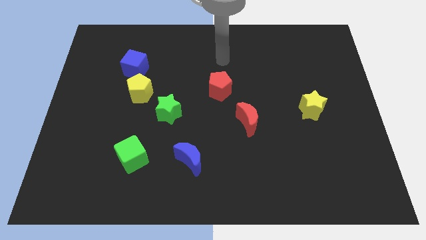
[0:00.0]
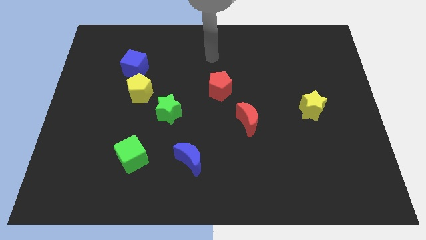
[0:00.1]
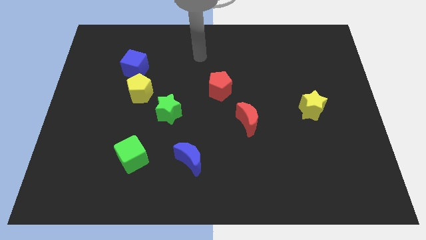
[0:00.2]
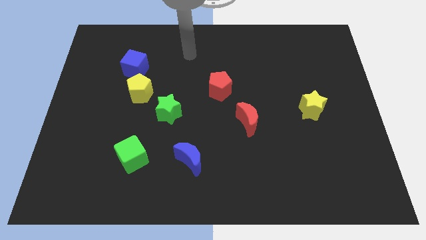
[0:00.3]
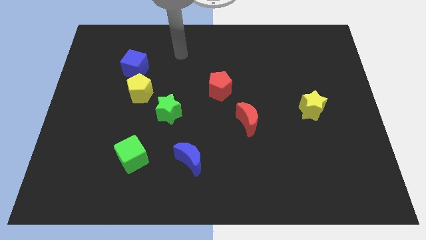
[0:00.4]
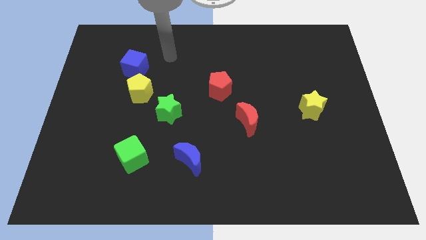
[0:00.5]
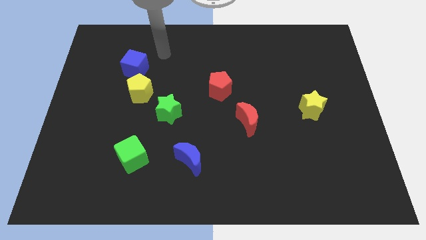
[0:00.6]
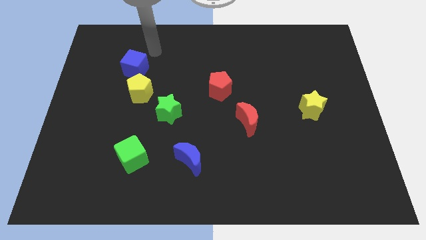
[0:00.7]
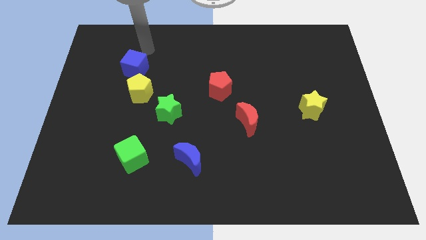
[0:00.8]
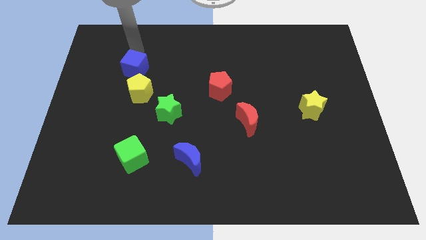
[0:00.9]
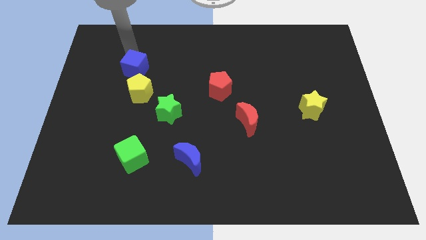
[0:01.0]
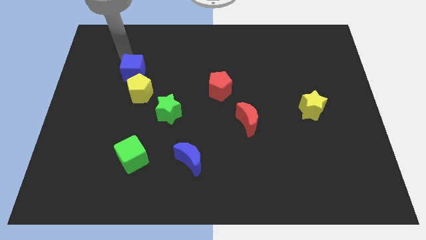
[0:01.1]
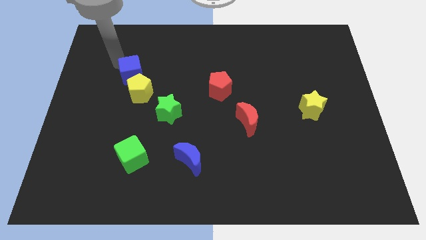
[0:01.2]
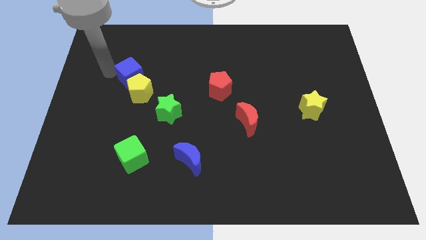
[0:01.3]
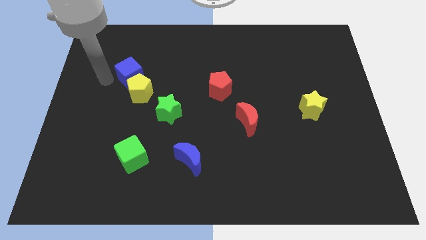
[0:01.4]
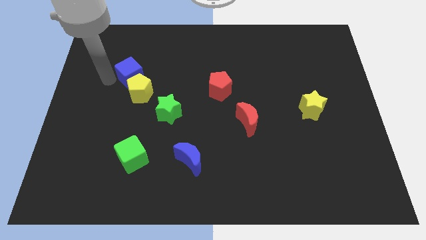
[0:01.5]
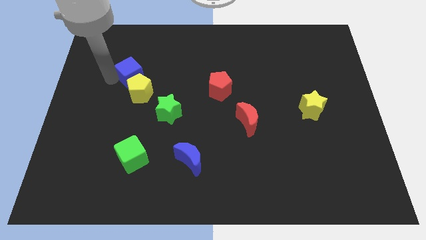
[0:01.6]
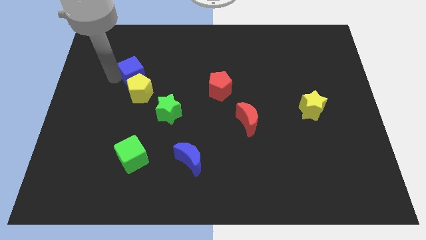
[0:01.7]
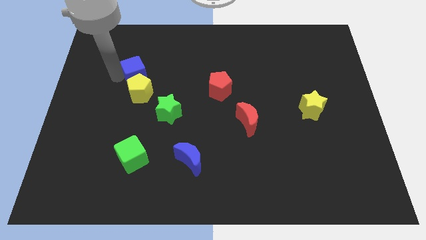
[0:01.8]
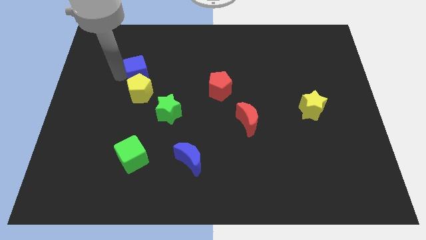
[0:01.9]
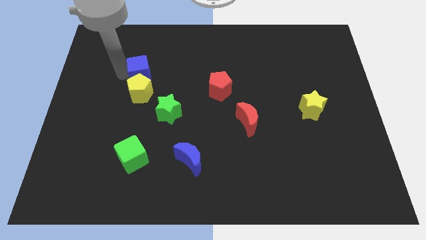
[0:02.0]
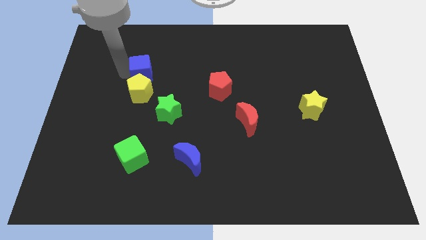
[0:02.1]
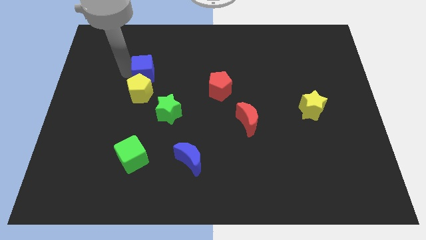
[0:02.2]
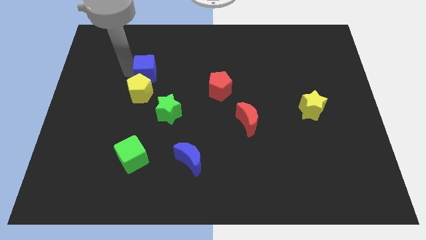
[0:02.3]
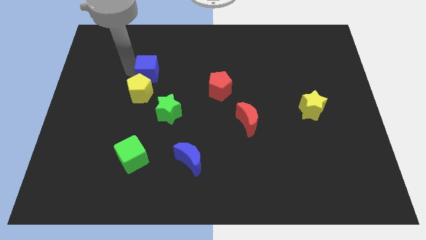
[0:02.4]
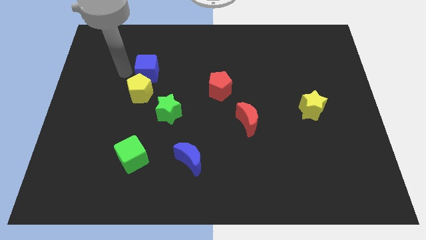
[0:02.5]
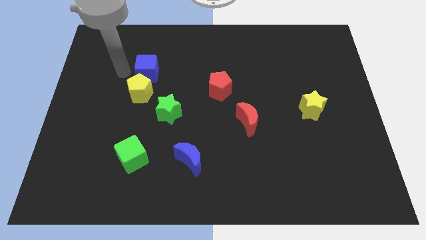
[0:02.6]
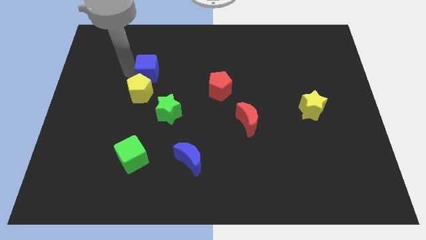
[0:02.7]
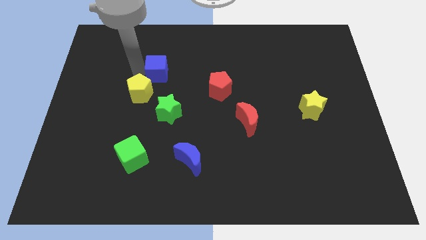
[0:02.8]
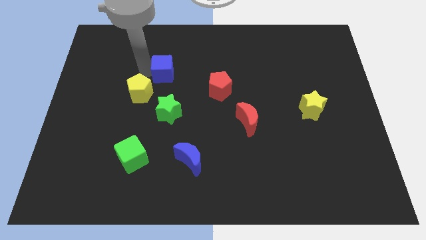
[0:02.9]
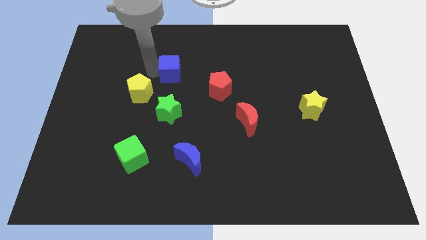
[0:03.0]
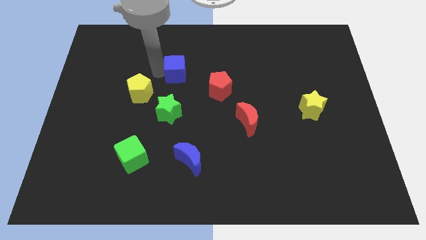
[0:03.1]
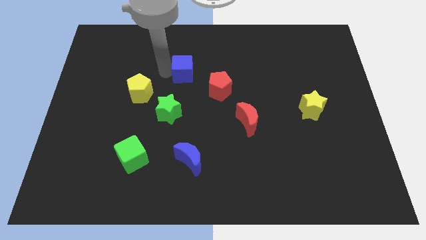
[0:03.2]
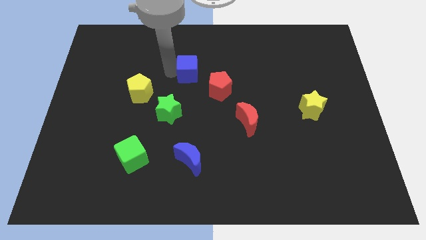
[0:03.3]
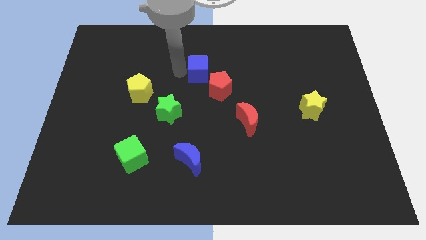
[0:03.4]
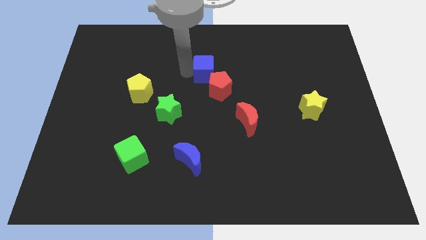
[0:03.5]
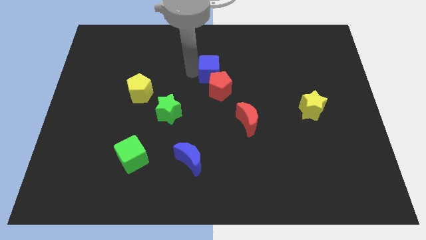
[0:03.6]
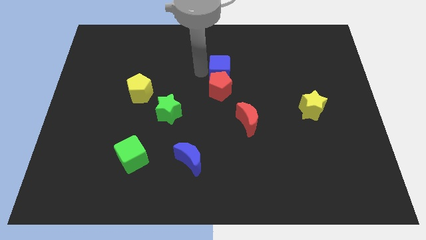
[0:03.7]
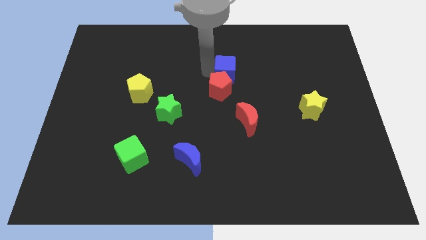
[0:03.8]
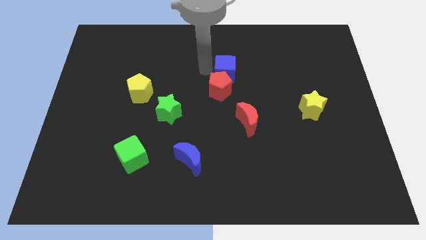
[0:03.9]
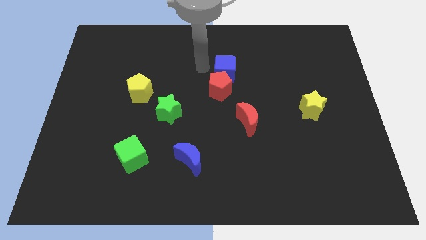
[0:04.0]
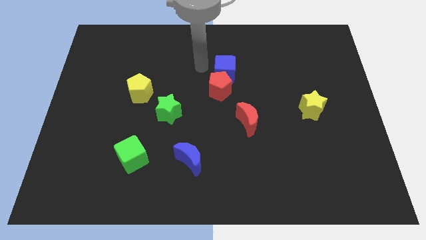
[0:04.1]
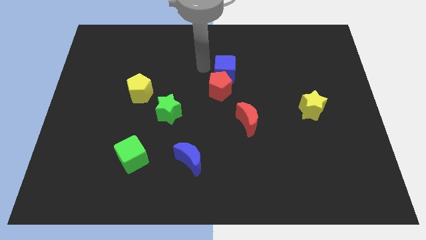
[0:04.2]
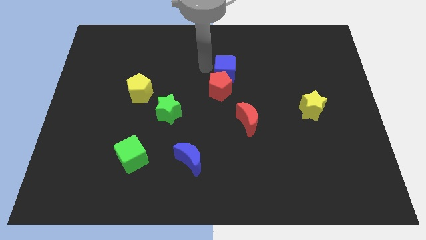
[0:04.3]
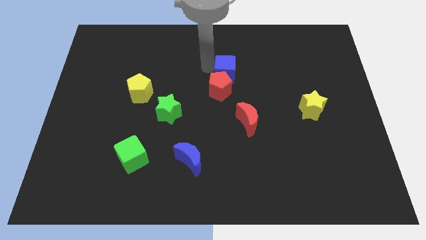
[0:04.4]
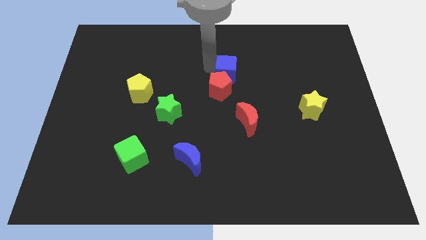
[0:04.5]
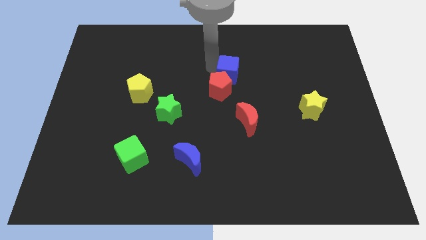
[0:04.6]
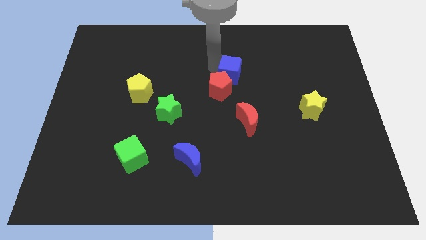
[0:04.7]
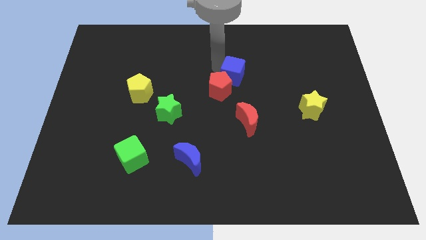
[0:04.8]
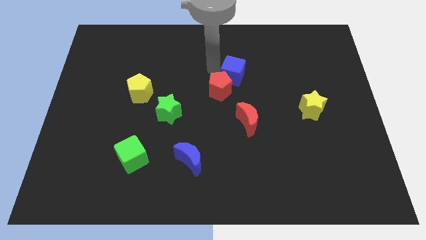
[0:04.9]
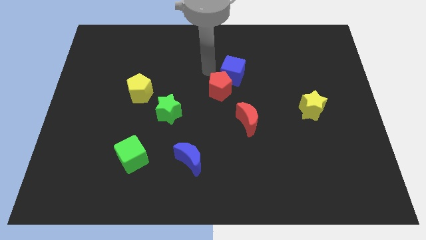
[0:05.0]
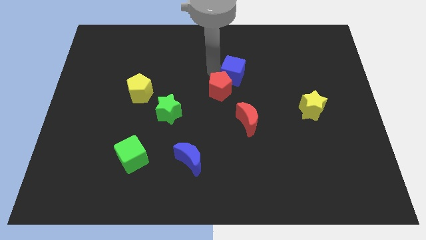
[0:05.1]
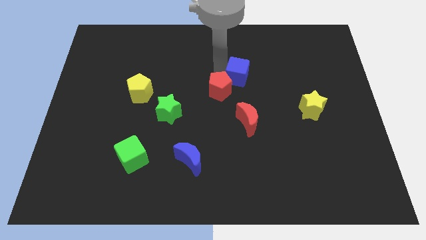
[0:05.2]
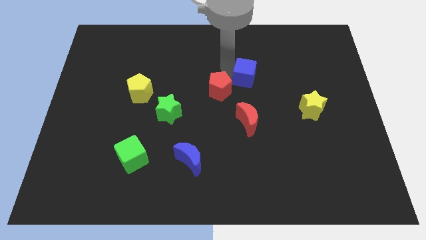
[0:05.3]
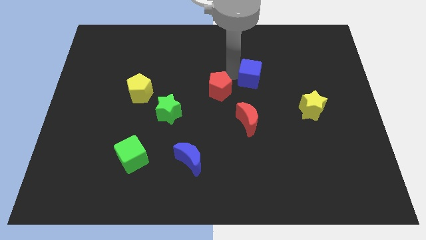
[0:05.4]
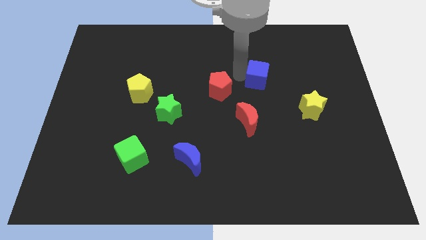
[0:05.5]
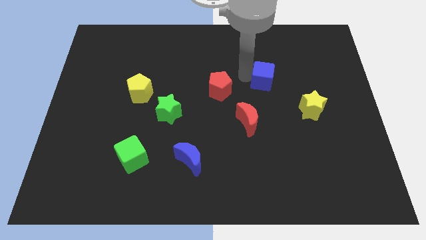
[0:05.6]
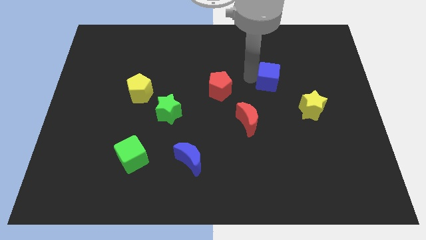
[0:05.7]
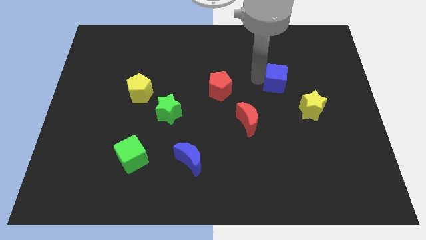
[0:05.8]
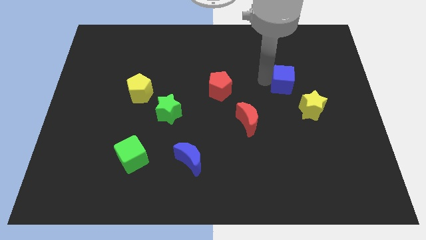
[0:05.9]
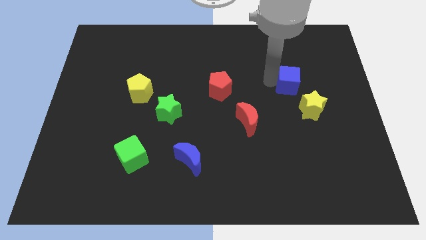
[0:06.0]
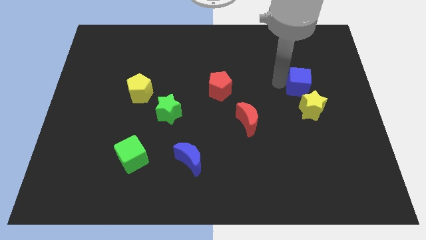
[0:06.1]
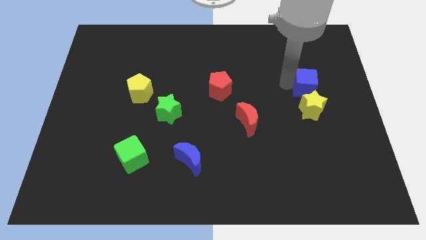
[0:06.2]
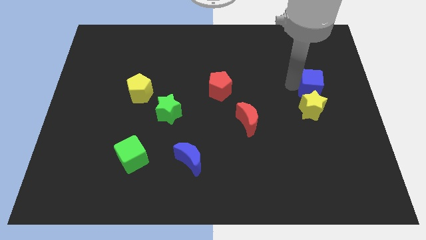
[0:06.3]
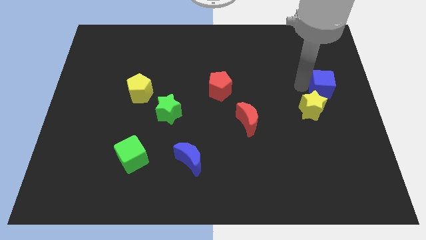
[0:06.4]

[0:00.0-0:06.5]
move the blue cube to the right side of the board
